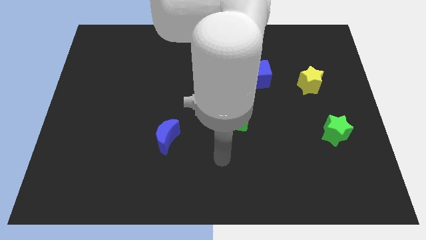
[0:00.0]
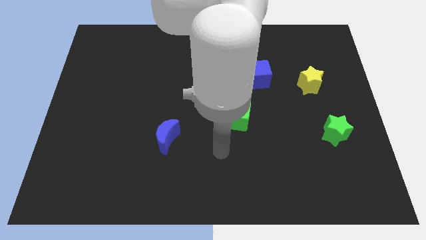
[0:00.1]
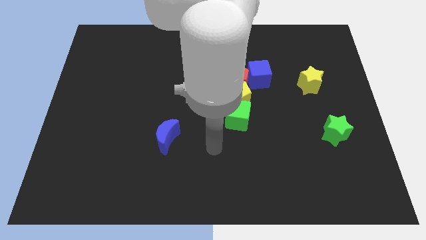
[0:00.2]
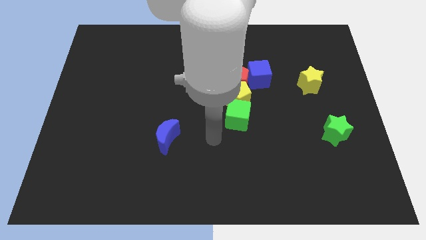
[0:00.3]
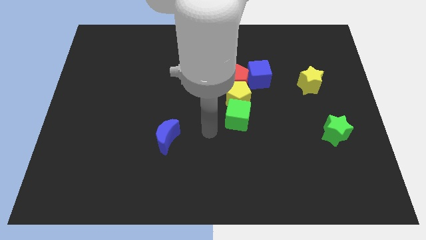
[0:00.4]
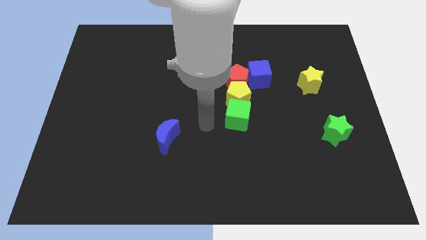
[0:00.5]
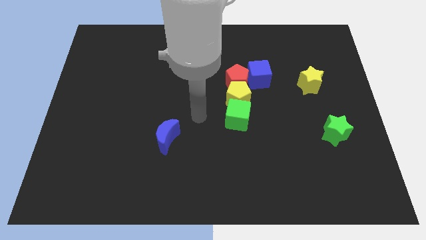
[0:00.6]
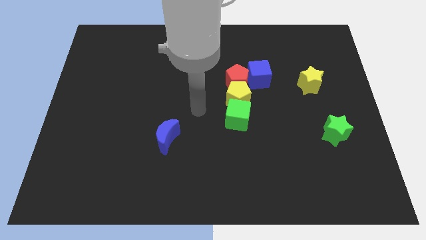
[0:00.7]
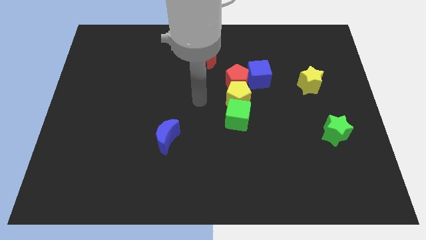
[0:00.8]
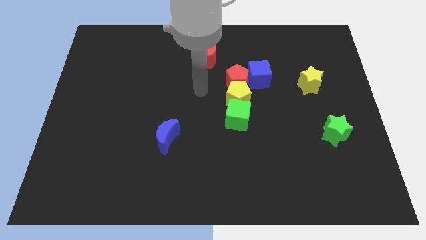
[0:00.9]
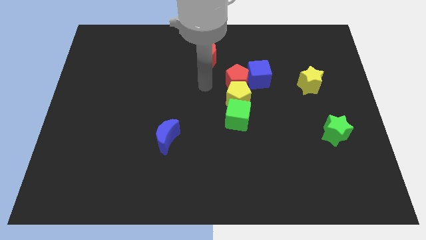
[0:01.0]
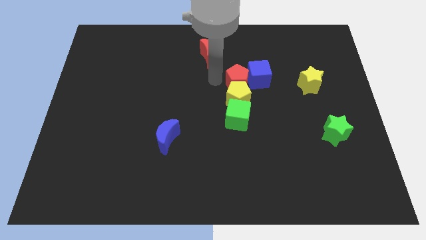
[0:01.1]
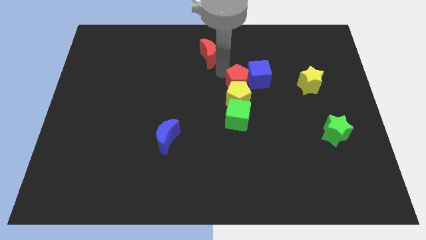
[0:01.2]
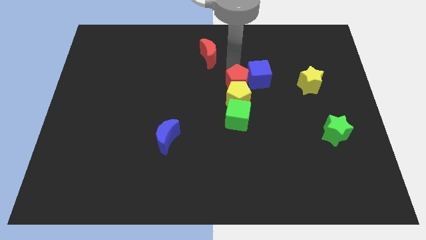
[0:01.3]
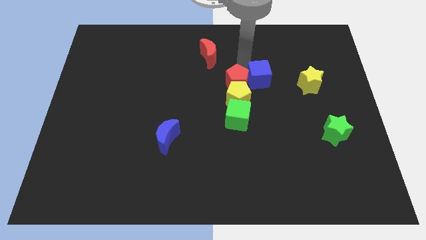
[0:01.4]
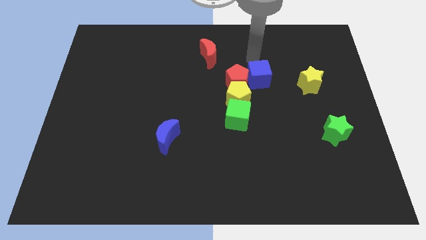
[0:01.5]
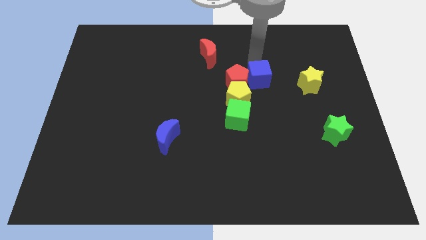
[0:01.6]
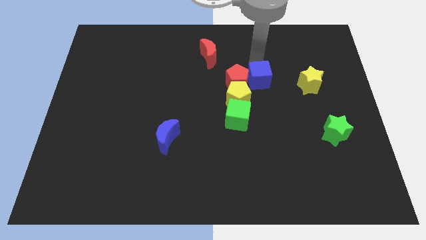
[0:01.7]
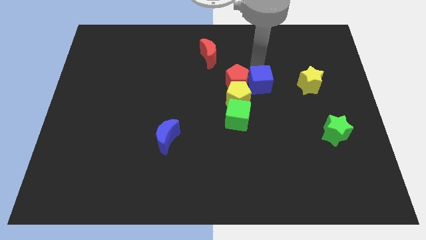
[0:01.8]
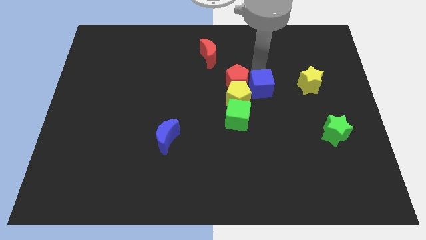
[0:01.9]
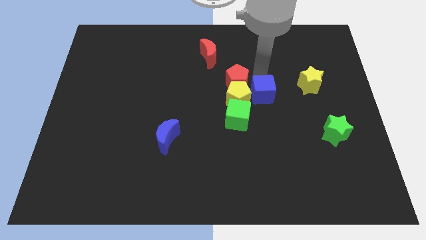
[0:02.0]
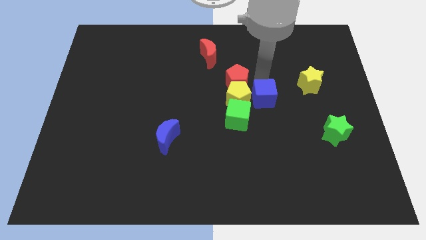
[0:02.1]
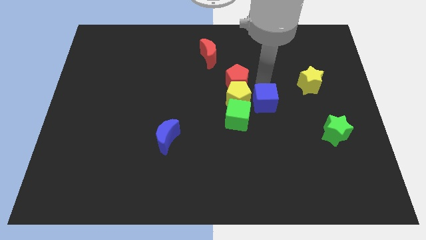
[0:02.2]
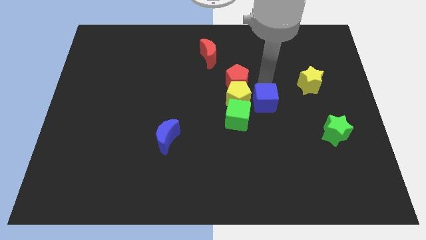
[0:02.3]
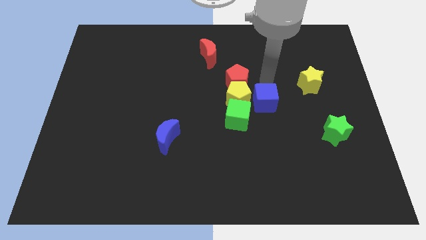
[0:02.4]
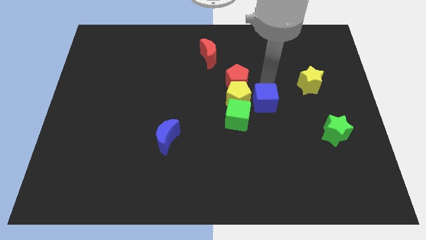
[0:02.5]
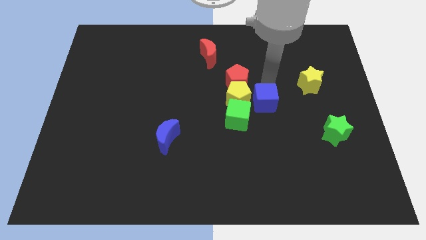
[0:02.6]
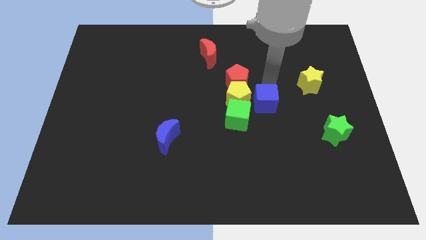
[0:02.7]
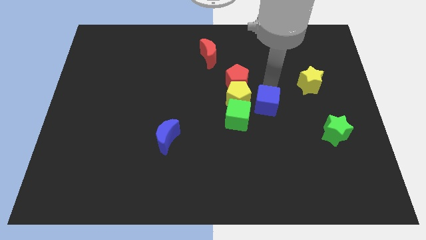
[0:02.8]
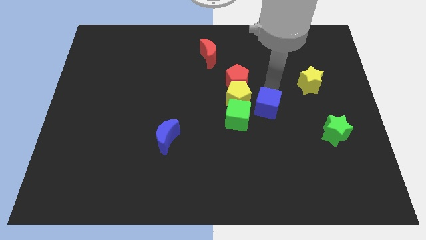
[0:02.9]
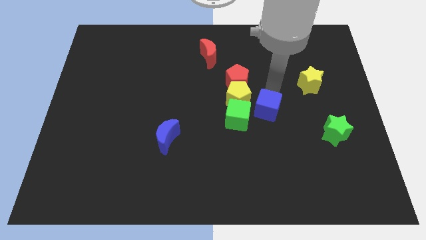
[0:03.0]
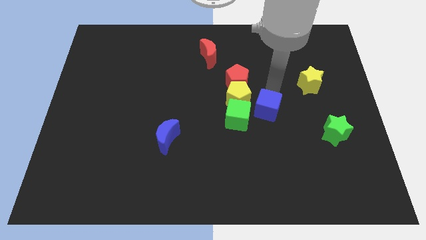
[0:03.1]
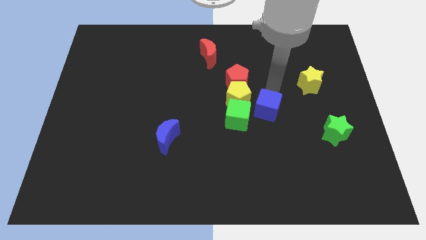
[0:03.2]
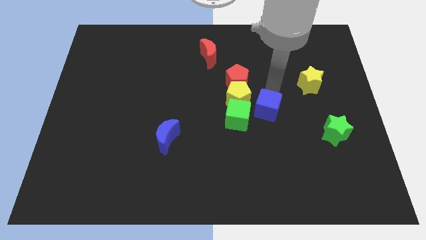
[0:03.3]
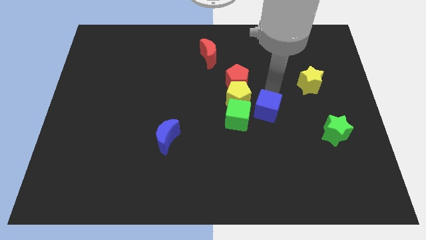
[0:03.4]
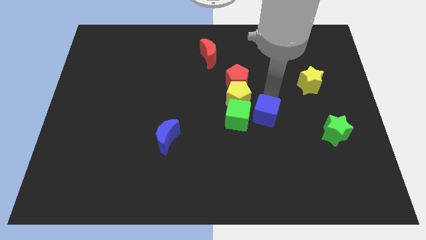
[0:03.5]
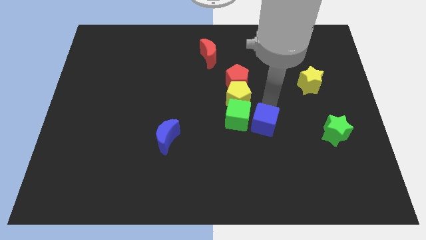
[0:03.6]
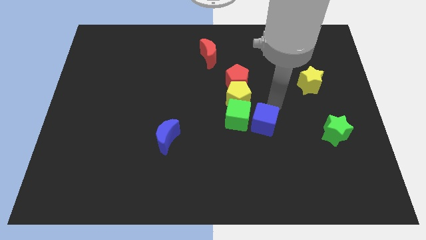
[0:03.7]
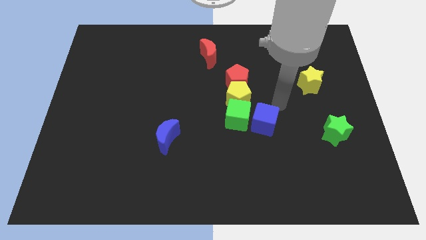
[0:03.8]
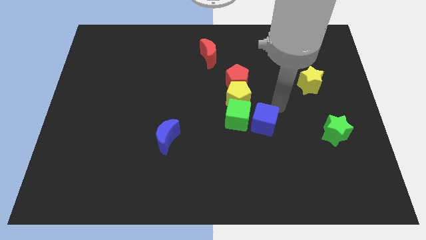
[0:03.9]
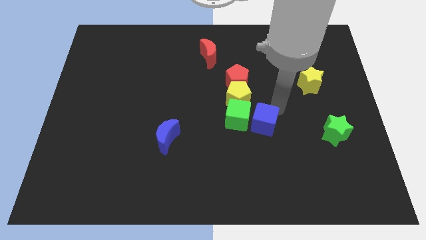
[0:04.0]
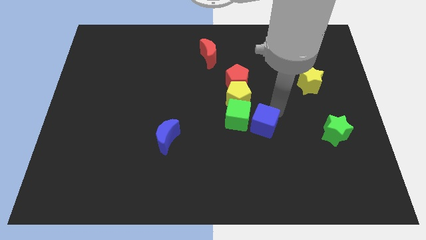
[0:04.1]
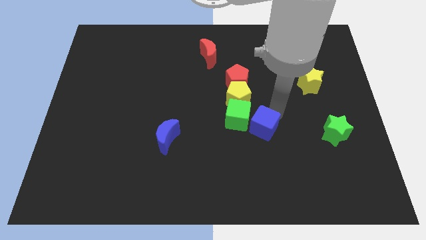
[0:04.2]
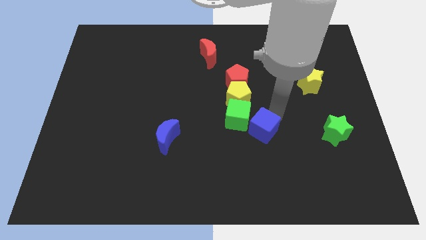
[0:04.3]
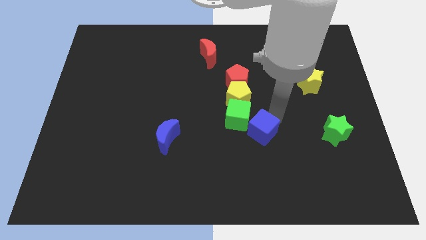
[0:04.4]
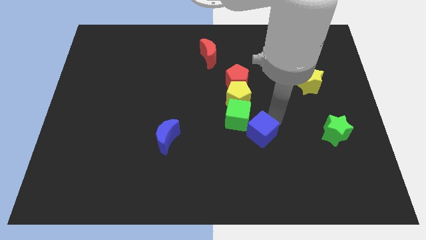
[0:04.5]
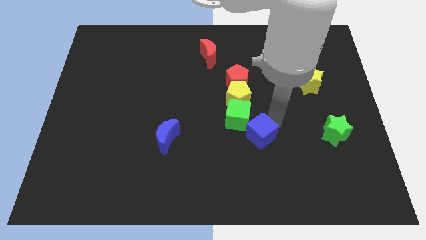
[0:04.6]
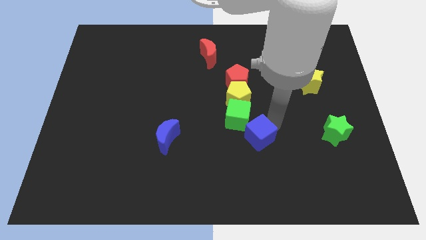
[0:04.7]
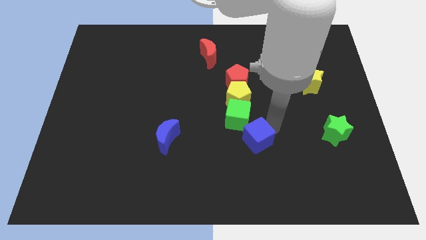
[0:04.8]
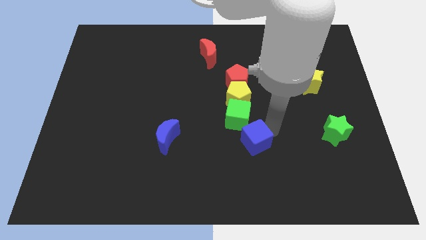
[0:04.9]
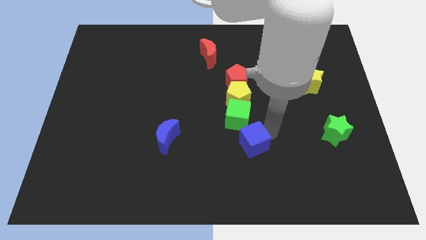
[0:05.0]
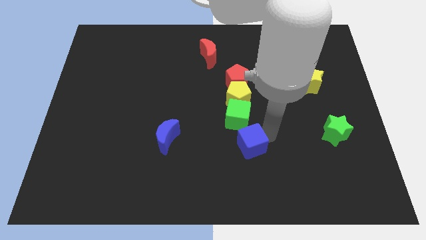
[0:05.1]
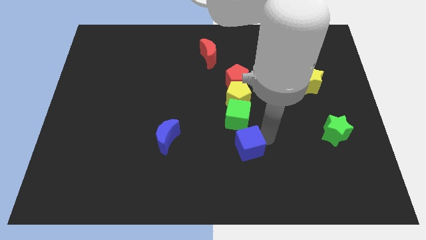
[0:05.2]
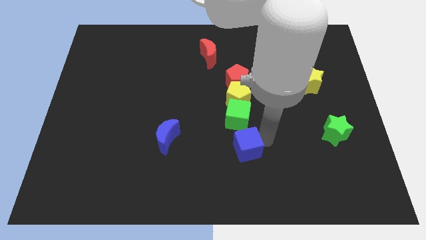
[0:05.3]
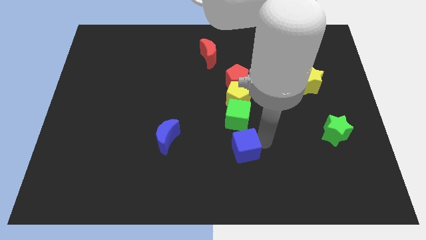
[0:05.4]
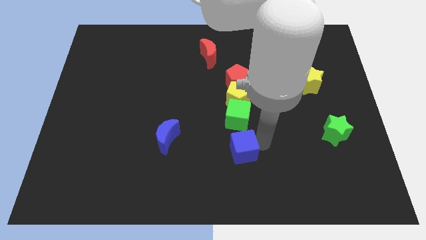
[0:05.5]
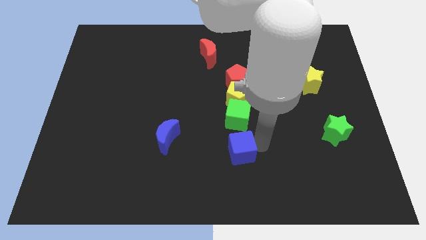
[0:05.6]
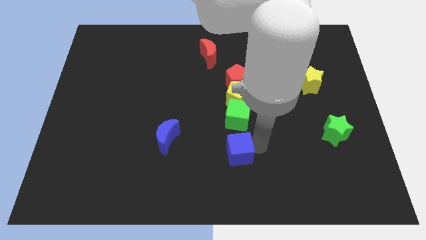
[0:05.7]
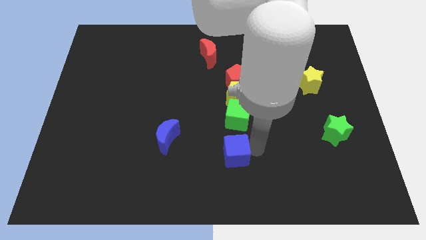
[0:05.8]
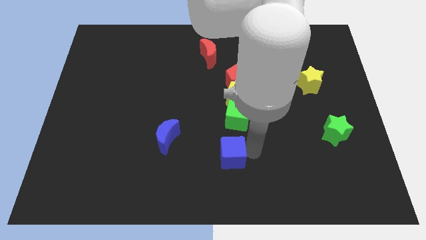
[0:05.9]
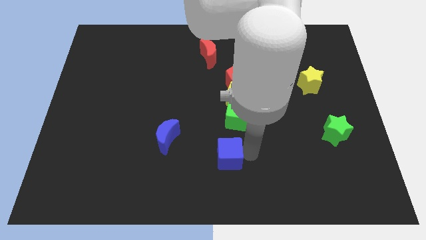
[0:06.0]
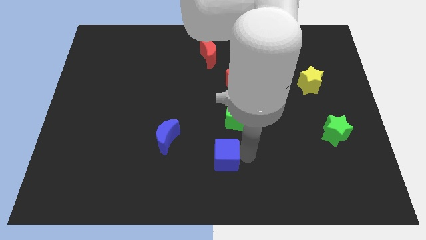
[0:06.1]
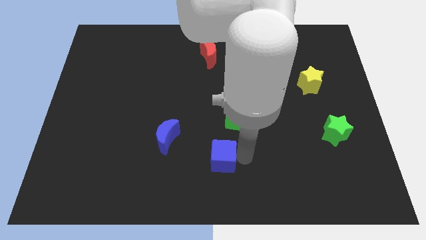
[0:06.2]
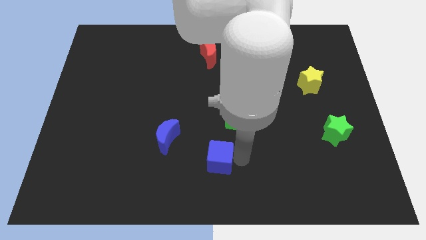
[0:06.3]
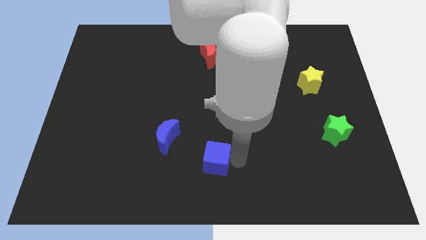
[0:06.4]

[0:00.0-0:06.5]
slide the blue cube down and left

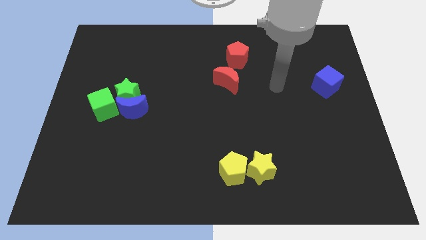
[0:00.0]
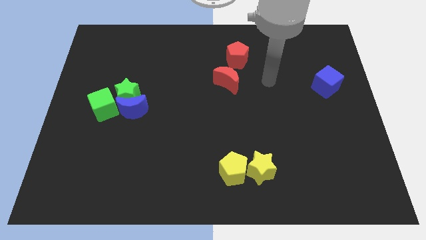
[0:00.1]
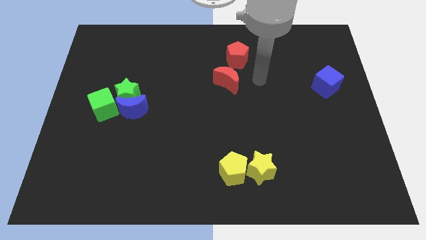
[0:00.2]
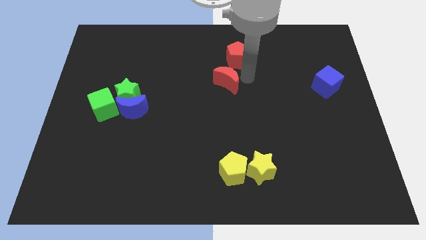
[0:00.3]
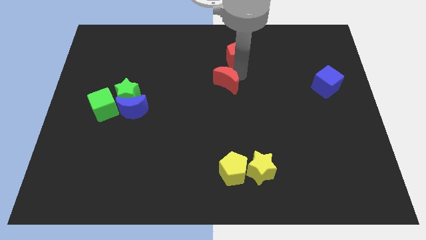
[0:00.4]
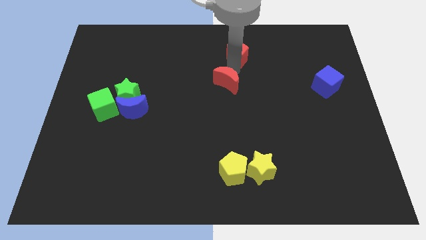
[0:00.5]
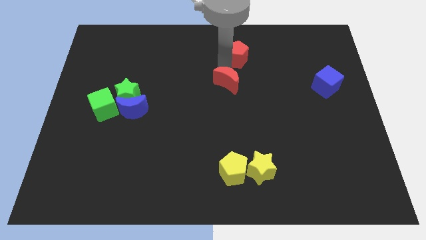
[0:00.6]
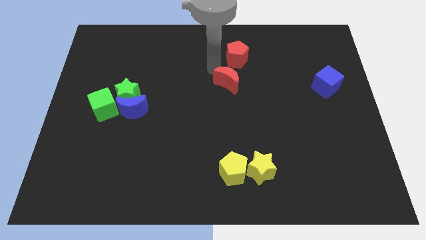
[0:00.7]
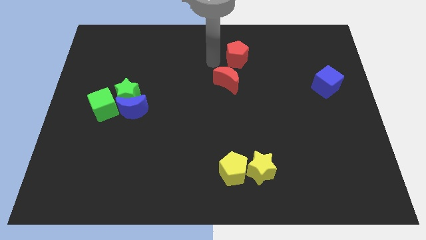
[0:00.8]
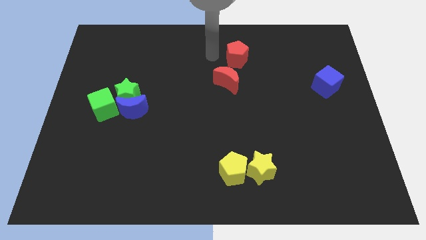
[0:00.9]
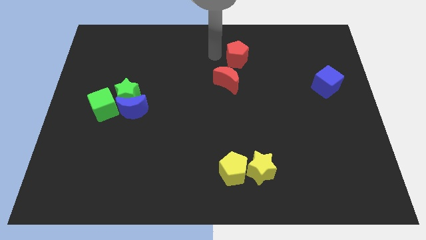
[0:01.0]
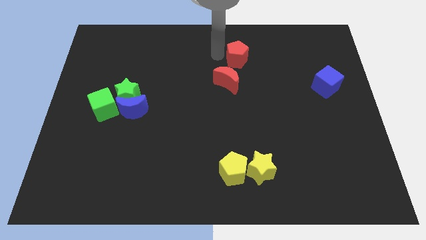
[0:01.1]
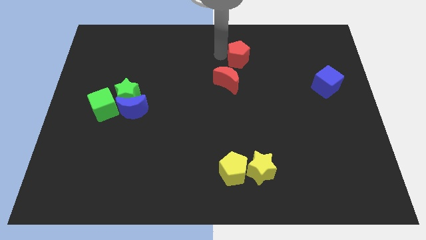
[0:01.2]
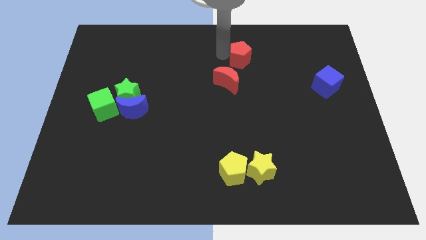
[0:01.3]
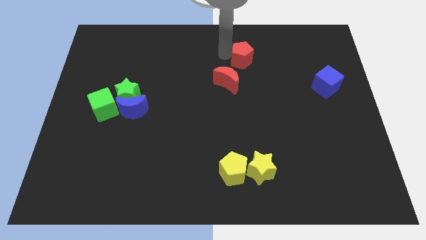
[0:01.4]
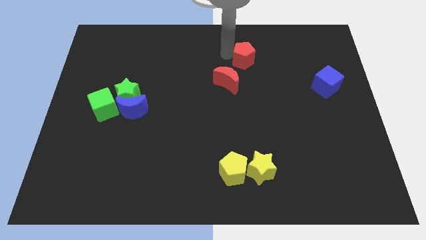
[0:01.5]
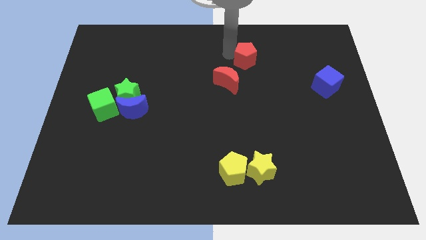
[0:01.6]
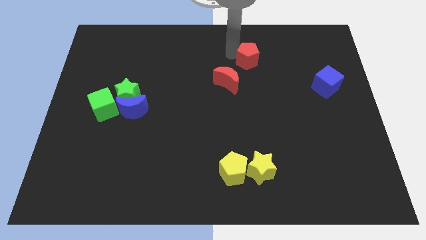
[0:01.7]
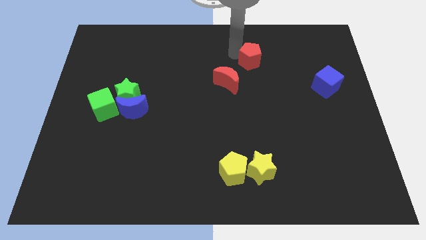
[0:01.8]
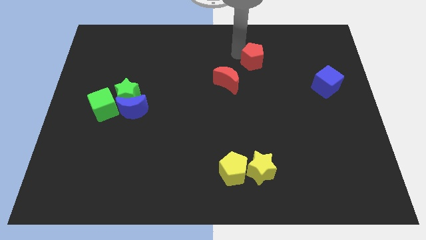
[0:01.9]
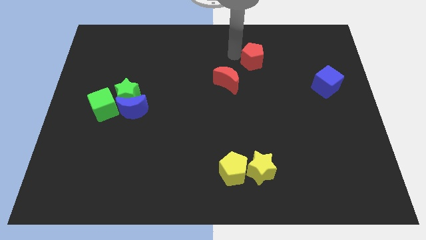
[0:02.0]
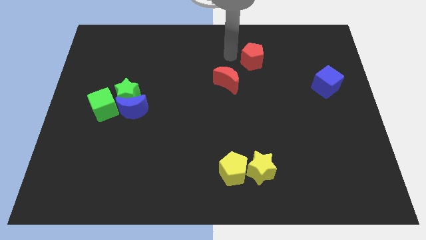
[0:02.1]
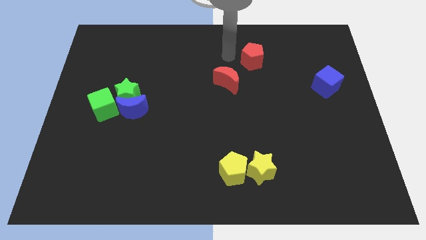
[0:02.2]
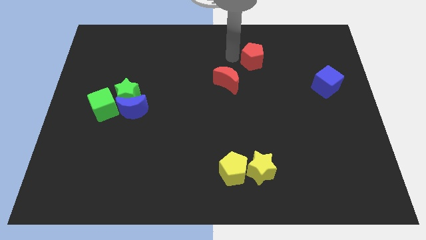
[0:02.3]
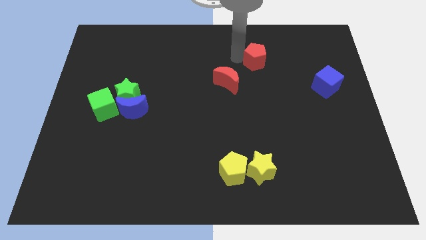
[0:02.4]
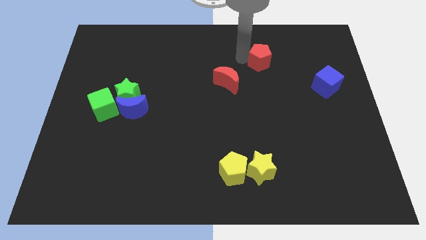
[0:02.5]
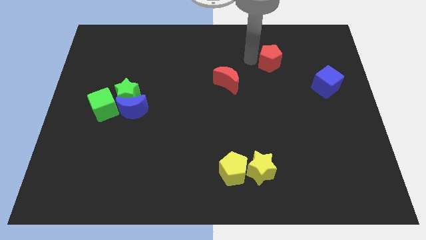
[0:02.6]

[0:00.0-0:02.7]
push the red pentagon a bit to the right
